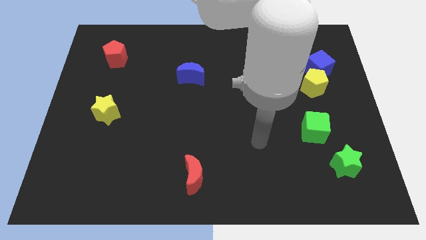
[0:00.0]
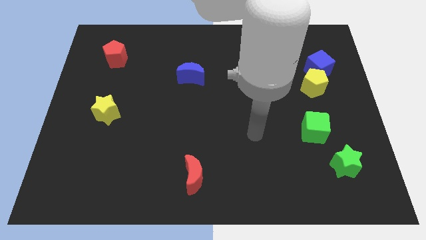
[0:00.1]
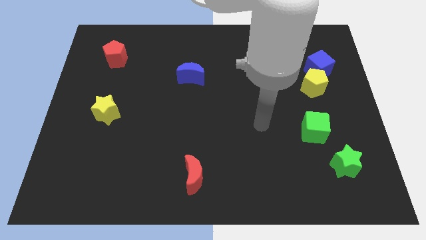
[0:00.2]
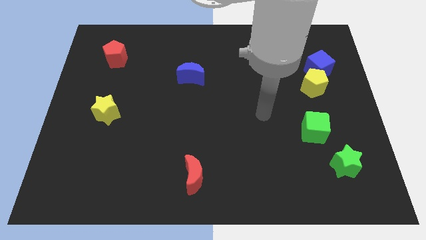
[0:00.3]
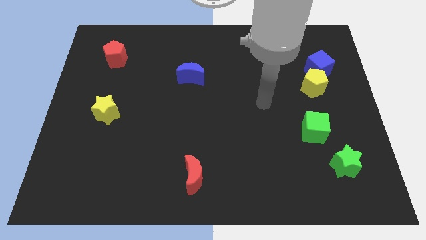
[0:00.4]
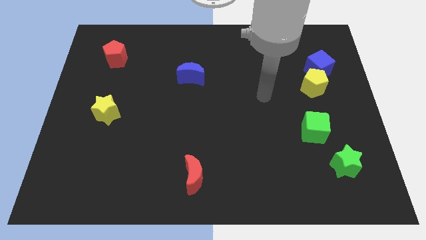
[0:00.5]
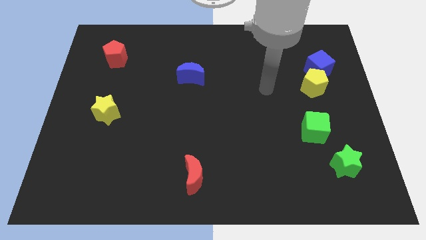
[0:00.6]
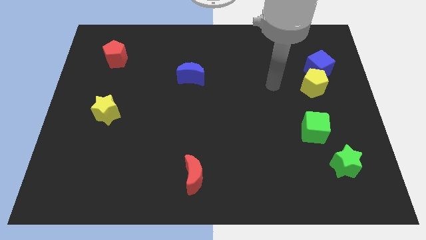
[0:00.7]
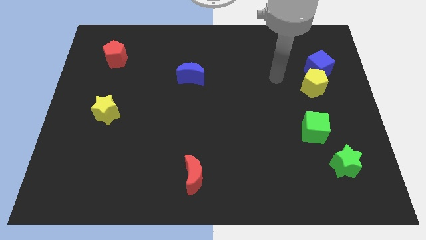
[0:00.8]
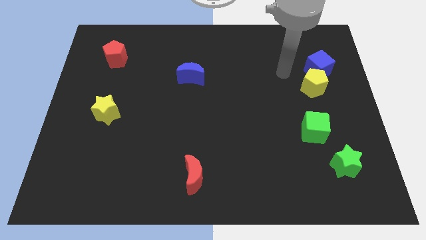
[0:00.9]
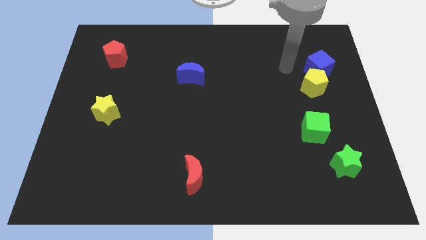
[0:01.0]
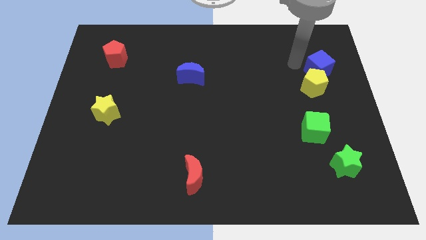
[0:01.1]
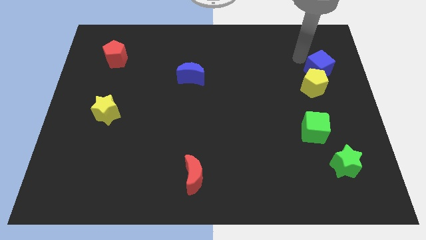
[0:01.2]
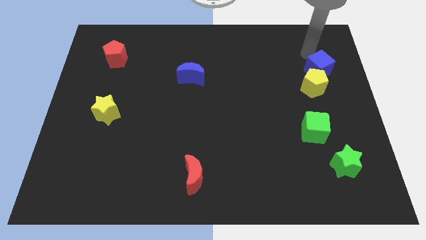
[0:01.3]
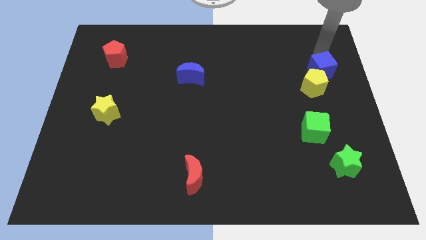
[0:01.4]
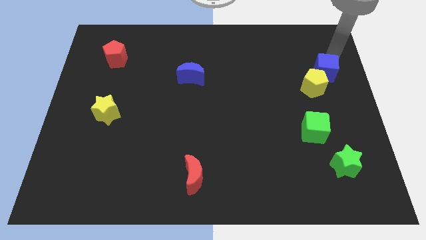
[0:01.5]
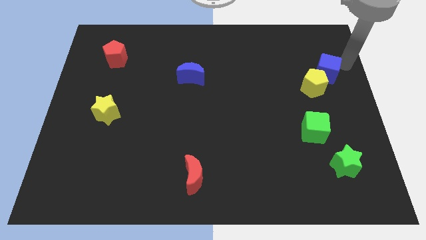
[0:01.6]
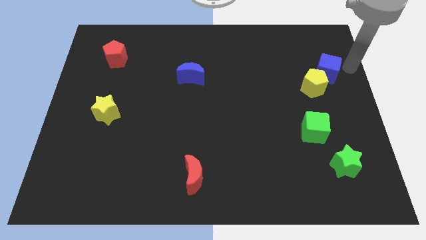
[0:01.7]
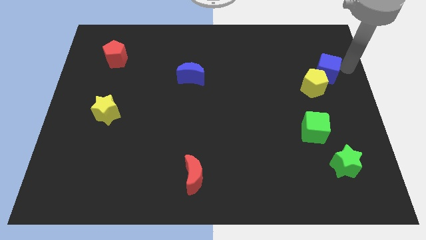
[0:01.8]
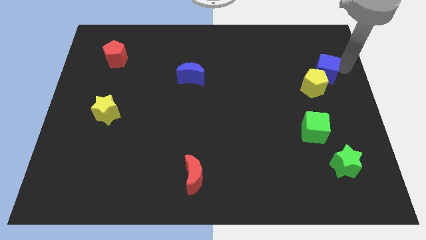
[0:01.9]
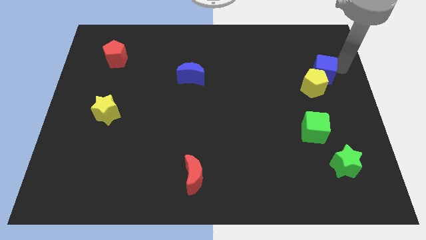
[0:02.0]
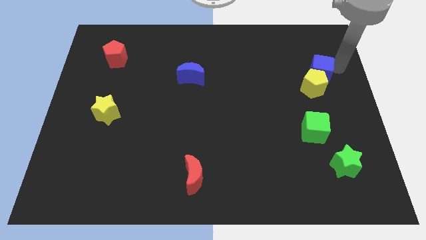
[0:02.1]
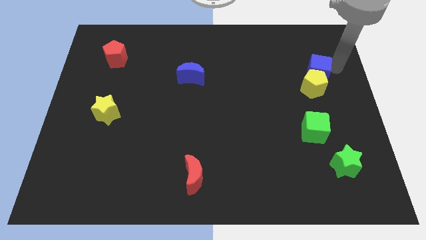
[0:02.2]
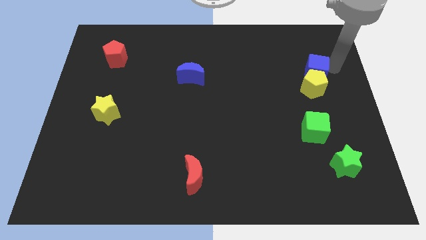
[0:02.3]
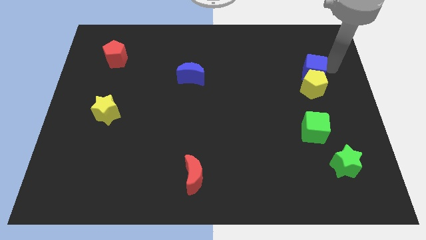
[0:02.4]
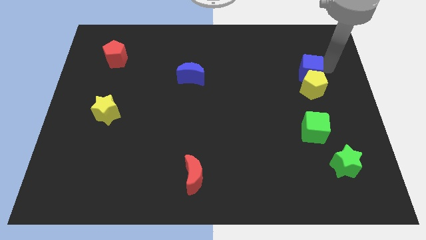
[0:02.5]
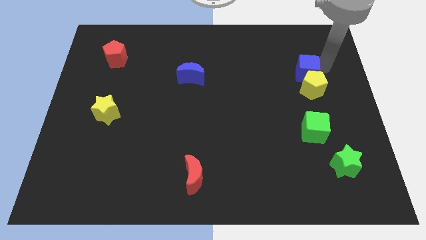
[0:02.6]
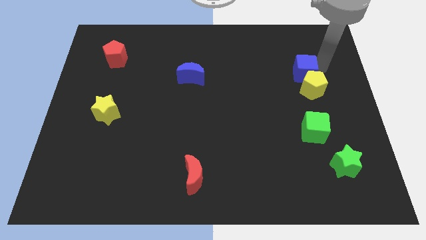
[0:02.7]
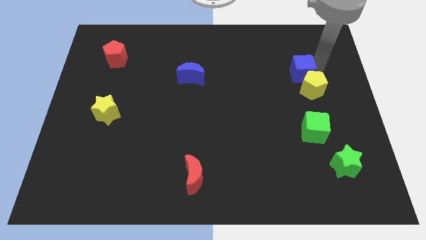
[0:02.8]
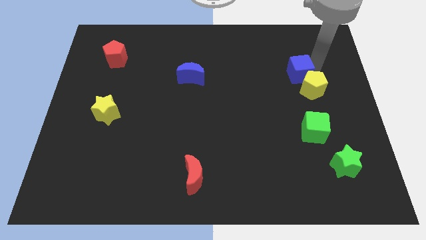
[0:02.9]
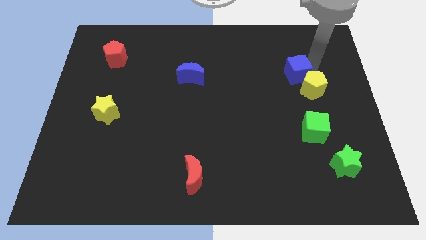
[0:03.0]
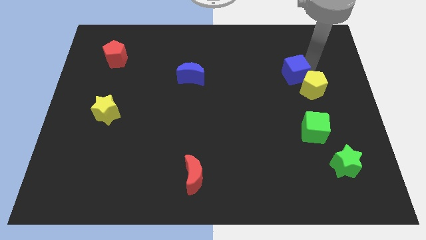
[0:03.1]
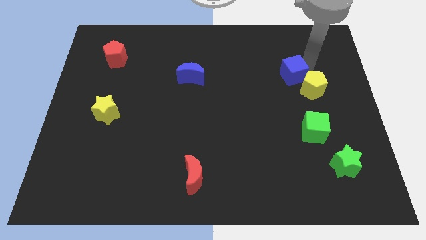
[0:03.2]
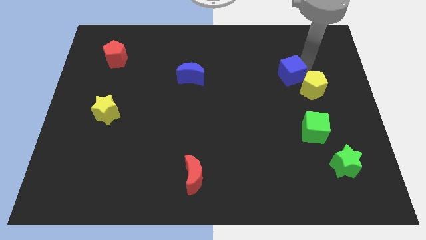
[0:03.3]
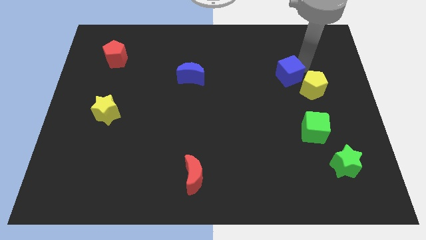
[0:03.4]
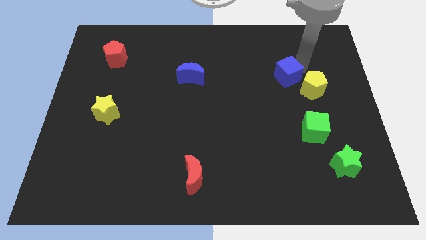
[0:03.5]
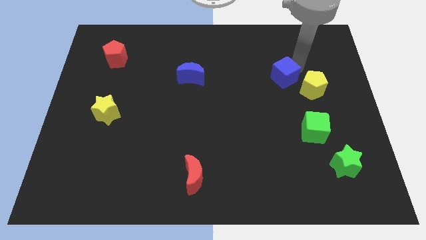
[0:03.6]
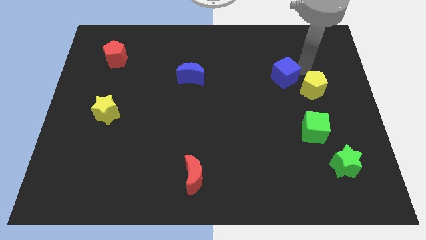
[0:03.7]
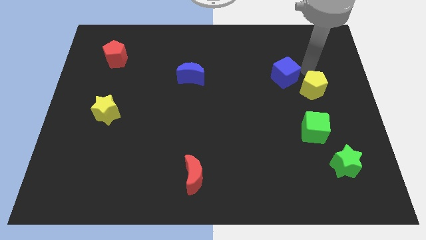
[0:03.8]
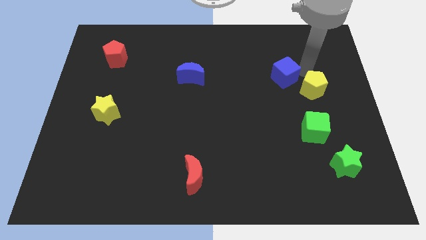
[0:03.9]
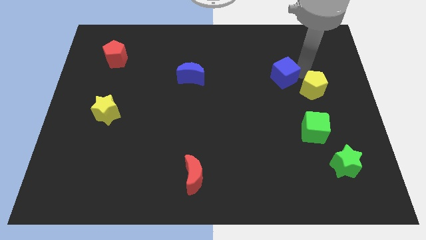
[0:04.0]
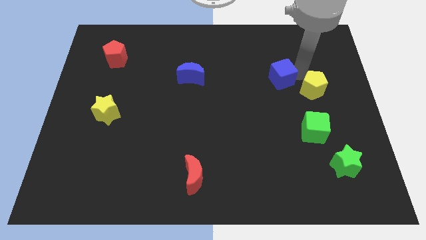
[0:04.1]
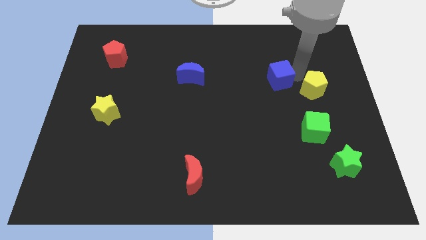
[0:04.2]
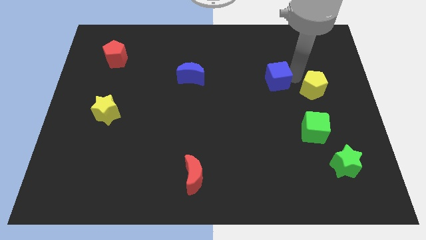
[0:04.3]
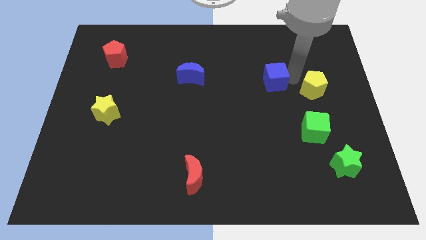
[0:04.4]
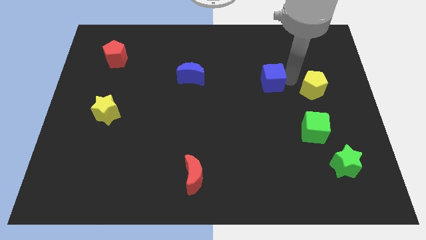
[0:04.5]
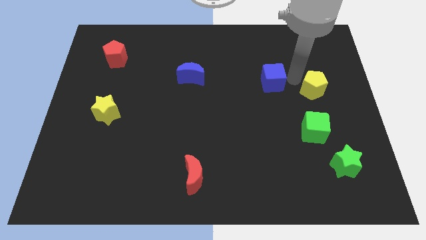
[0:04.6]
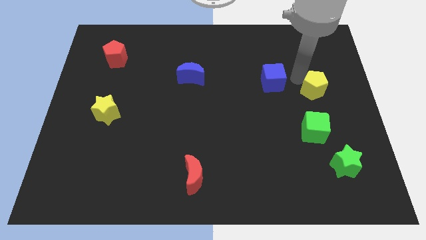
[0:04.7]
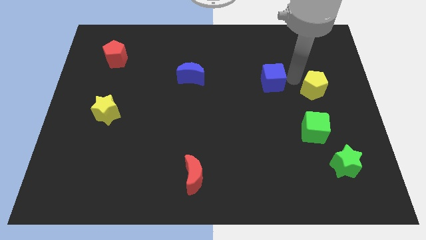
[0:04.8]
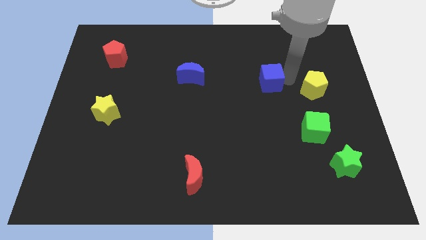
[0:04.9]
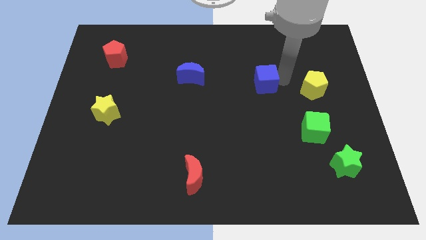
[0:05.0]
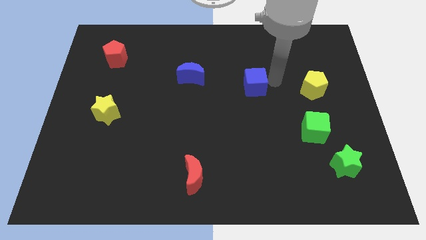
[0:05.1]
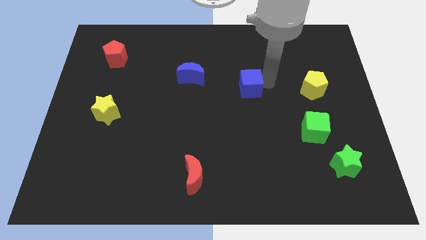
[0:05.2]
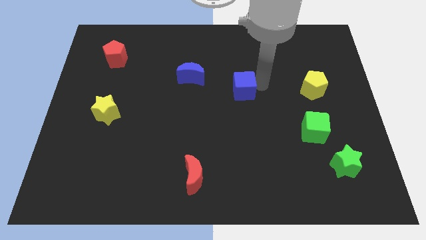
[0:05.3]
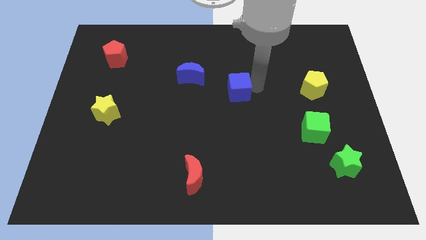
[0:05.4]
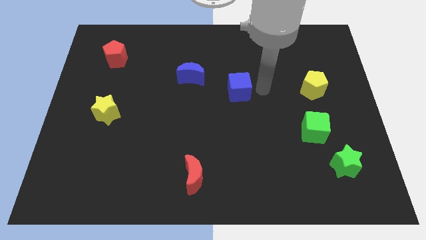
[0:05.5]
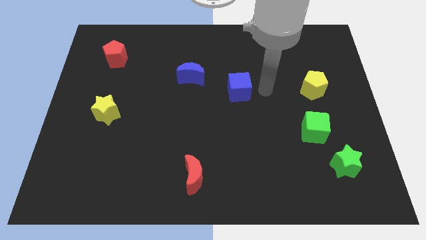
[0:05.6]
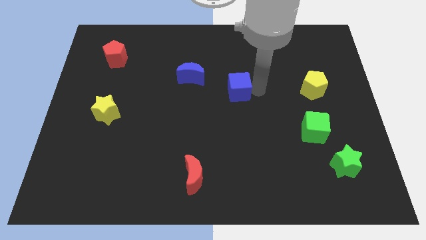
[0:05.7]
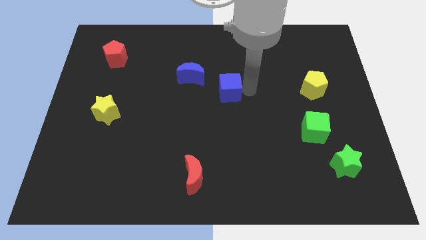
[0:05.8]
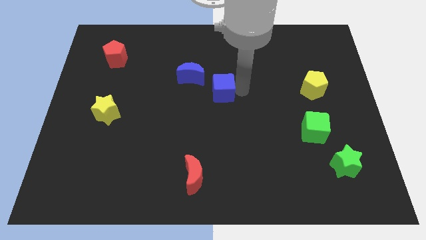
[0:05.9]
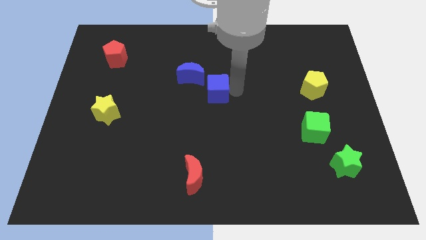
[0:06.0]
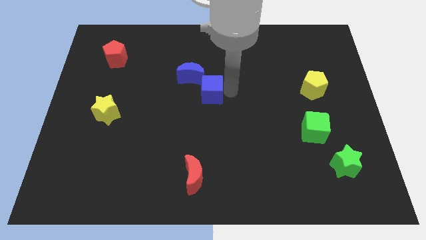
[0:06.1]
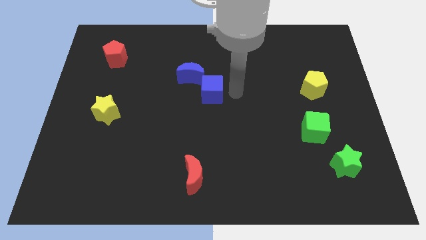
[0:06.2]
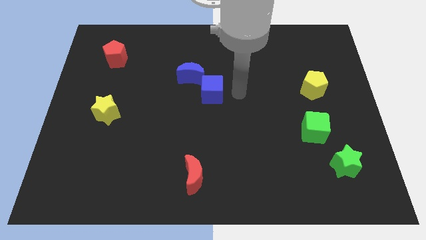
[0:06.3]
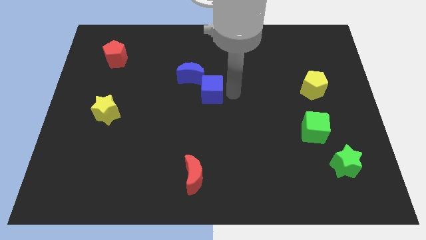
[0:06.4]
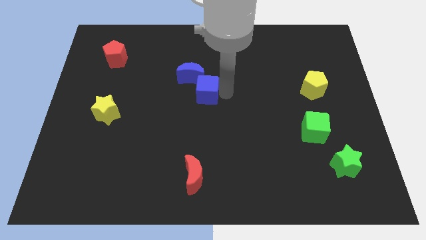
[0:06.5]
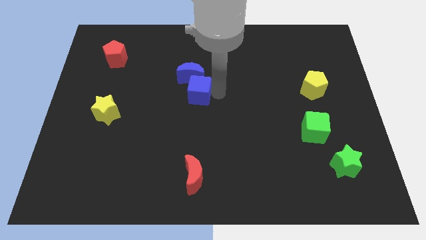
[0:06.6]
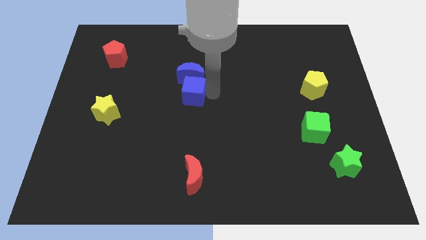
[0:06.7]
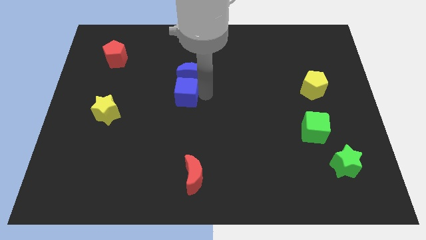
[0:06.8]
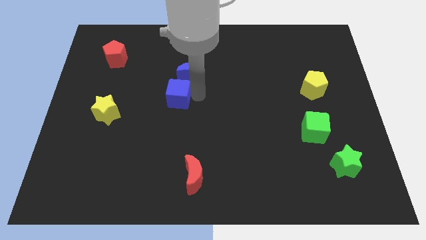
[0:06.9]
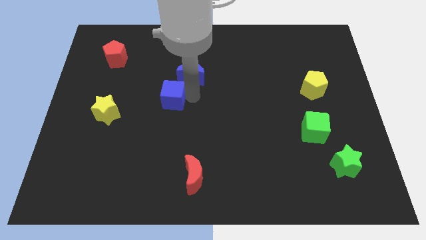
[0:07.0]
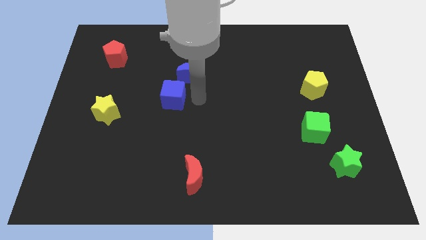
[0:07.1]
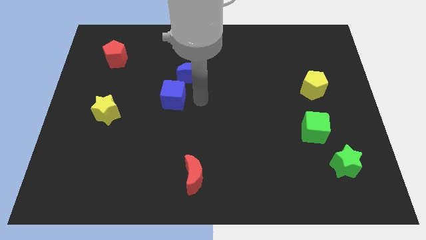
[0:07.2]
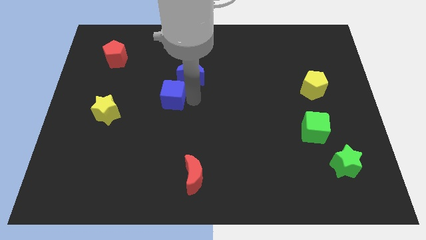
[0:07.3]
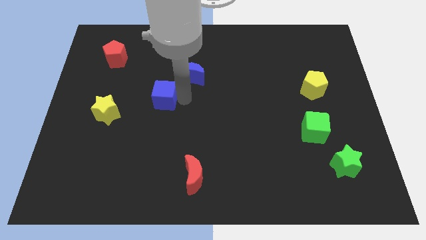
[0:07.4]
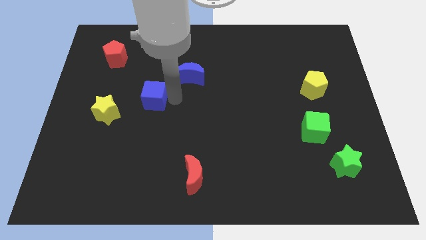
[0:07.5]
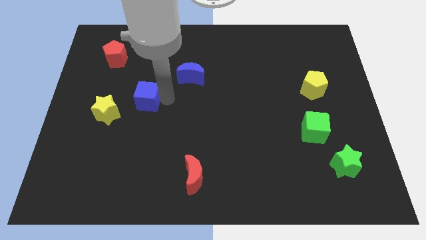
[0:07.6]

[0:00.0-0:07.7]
put the blue cube to the top right of the yellow star

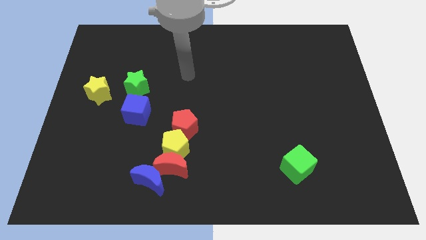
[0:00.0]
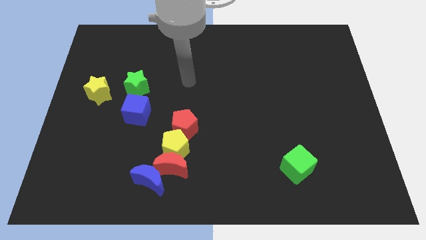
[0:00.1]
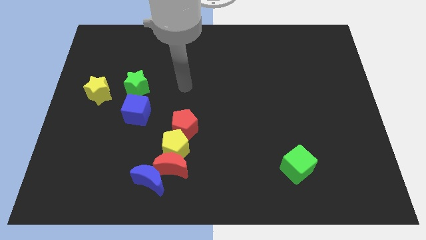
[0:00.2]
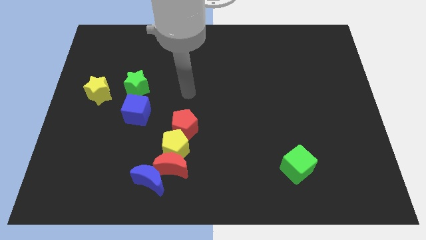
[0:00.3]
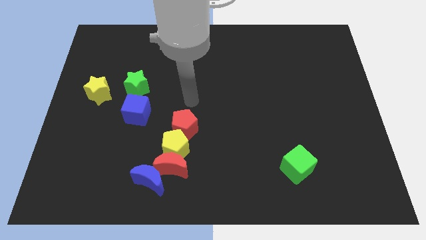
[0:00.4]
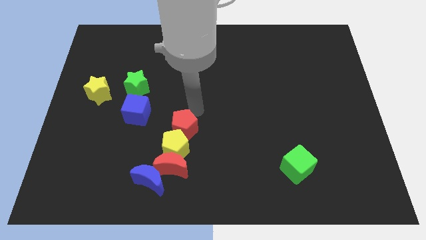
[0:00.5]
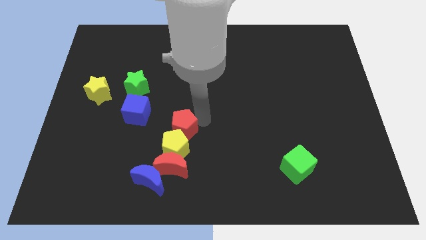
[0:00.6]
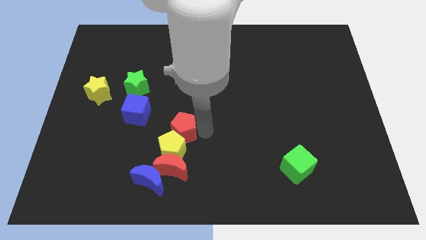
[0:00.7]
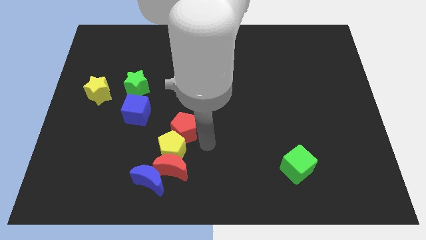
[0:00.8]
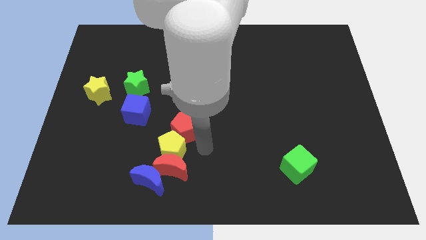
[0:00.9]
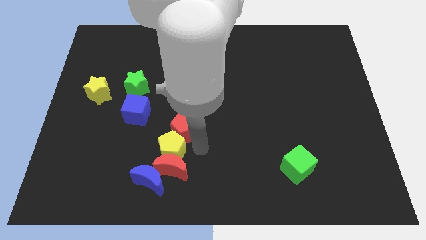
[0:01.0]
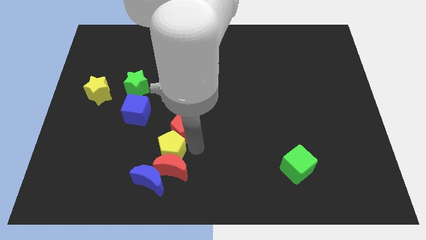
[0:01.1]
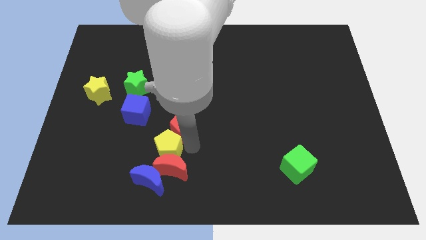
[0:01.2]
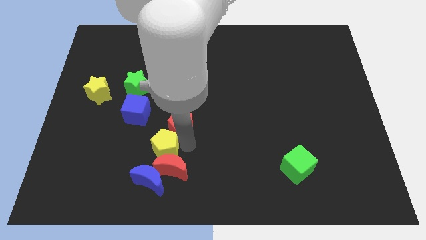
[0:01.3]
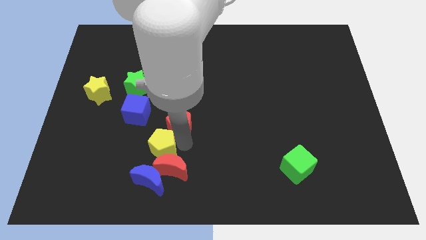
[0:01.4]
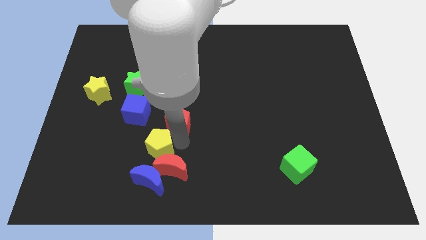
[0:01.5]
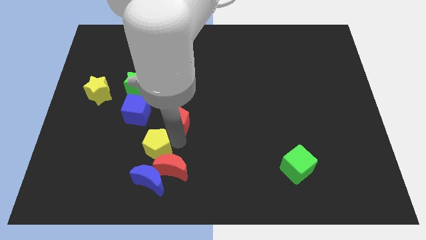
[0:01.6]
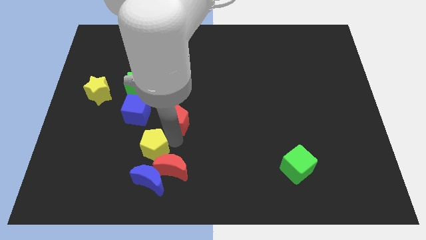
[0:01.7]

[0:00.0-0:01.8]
put the yellow pentagon below the blue cube
